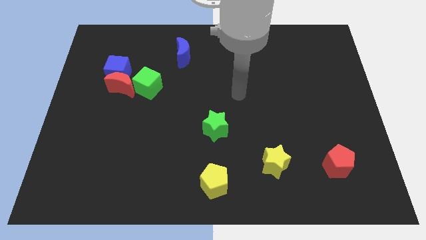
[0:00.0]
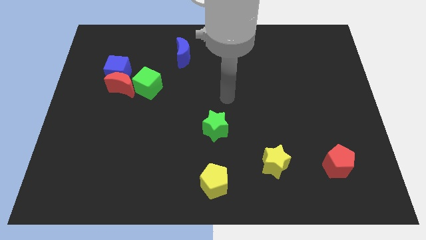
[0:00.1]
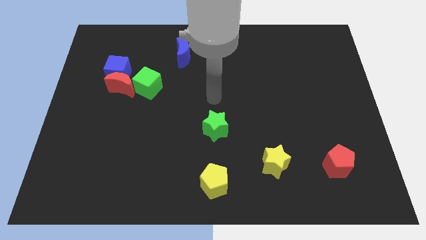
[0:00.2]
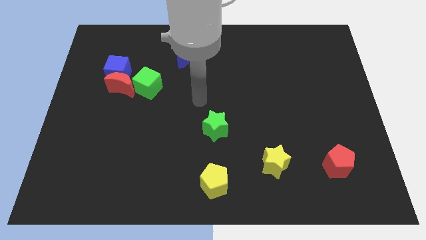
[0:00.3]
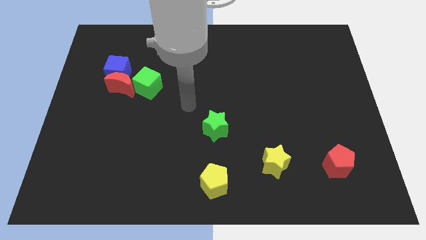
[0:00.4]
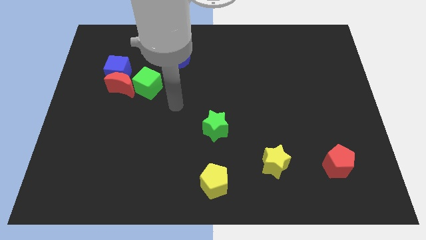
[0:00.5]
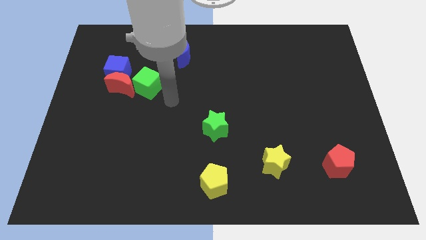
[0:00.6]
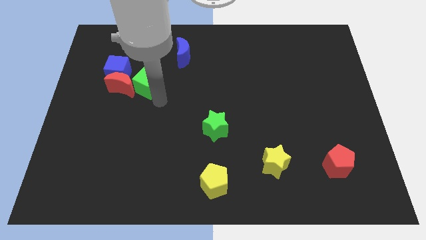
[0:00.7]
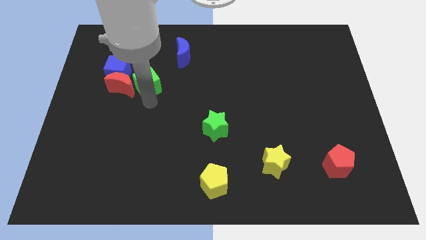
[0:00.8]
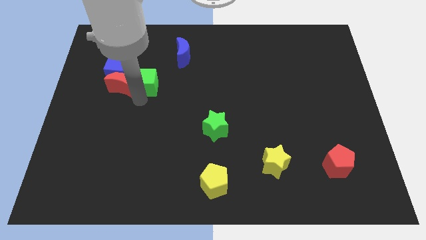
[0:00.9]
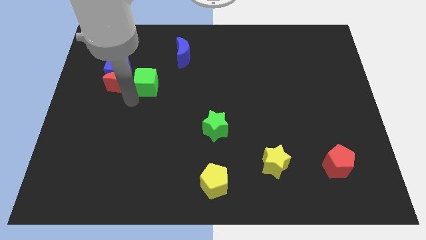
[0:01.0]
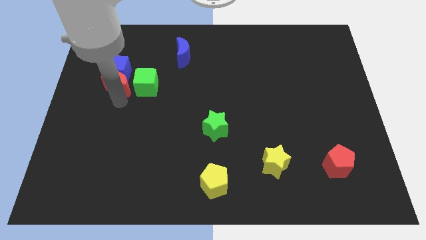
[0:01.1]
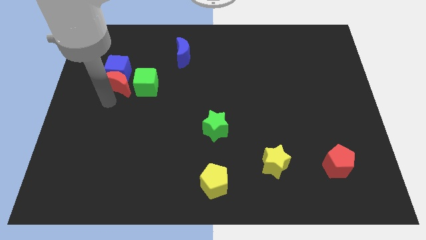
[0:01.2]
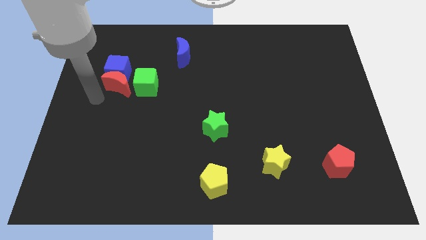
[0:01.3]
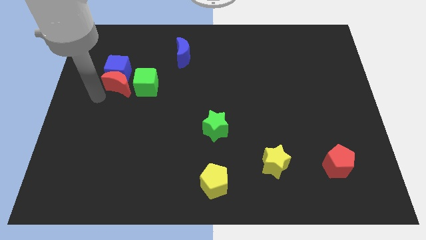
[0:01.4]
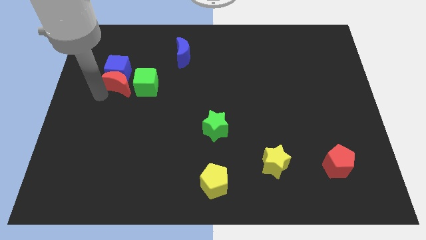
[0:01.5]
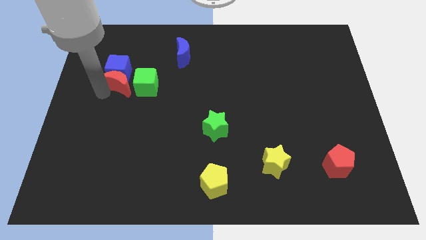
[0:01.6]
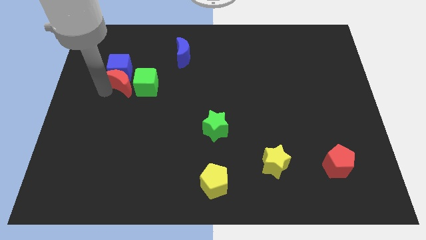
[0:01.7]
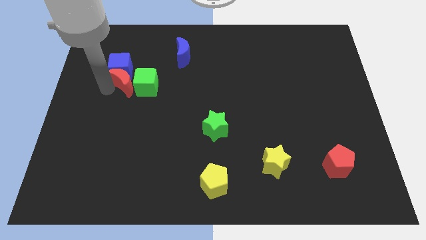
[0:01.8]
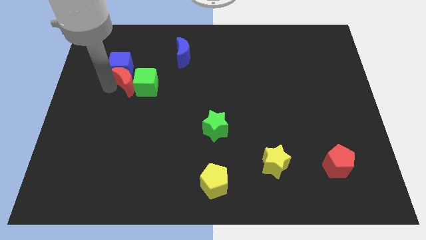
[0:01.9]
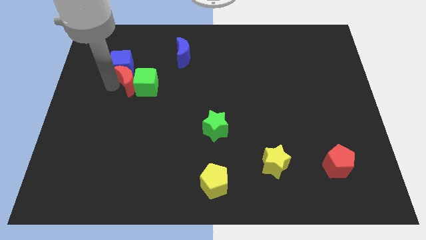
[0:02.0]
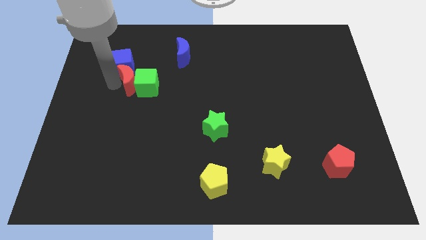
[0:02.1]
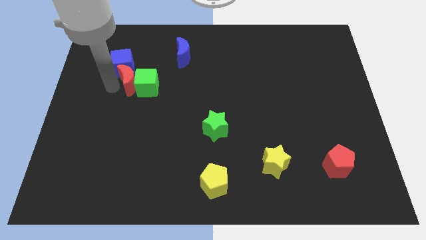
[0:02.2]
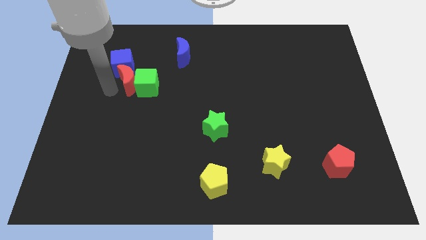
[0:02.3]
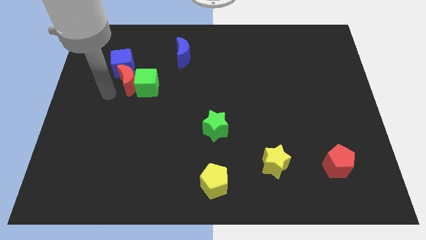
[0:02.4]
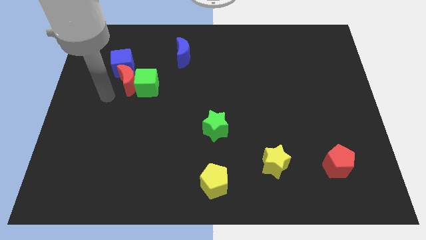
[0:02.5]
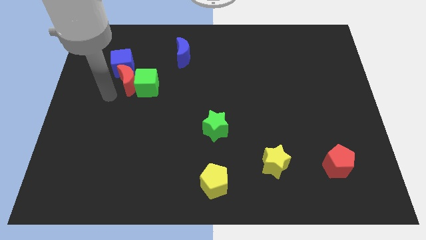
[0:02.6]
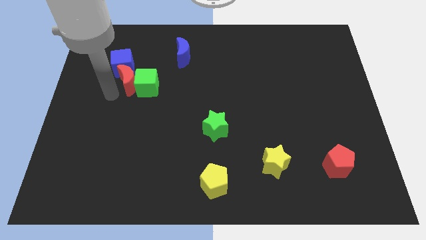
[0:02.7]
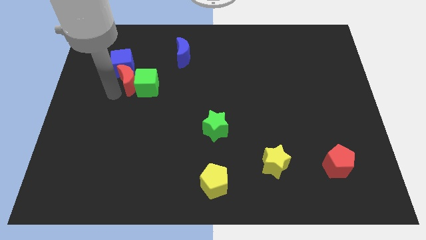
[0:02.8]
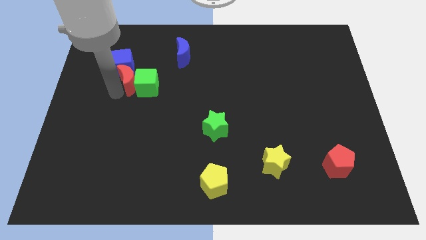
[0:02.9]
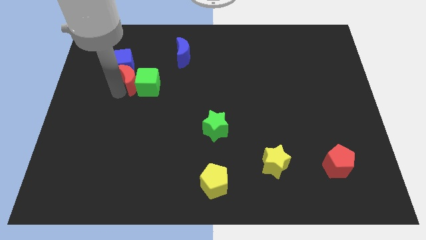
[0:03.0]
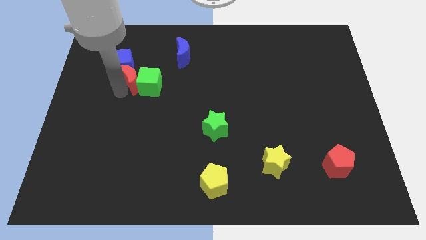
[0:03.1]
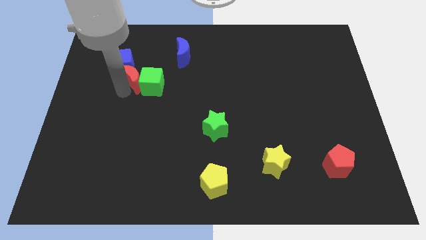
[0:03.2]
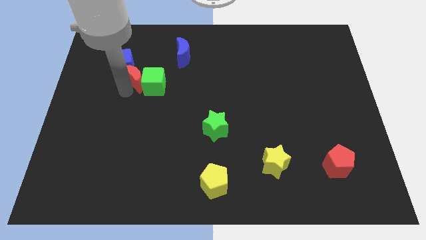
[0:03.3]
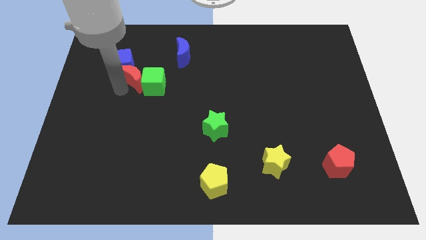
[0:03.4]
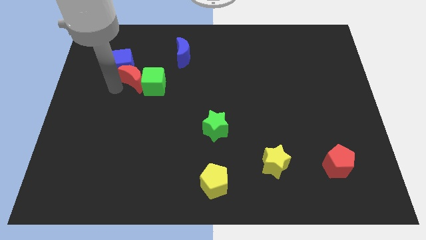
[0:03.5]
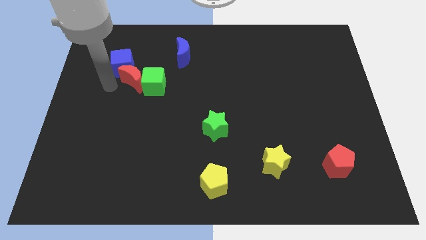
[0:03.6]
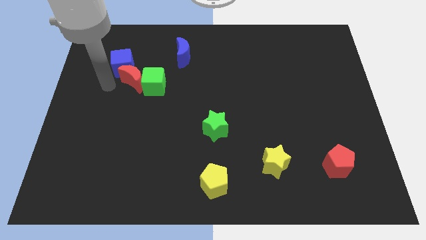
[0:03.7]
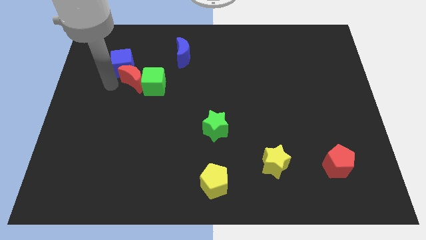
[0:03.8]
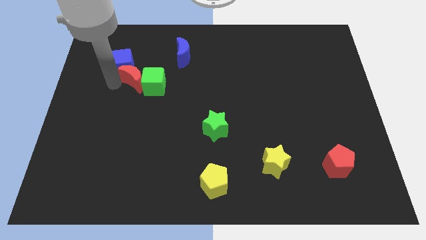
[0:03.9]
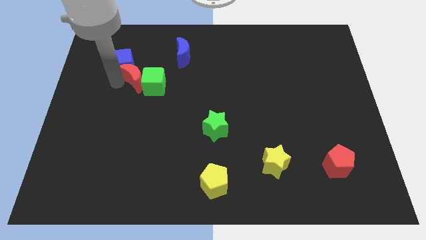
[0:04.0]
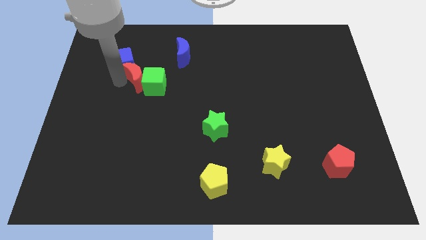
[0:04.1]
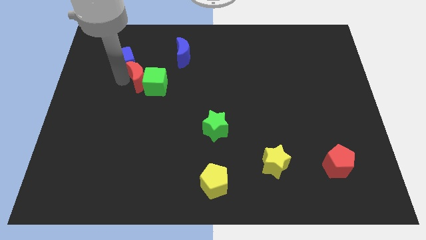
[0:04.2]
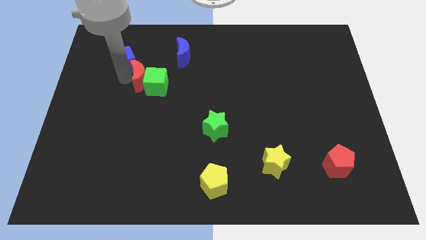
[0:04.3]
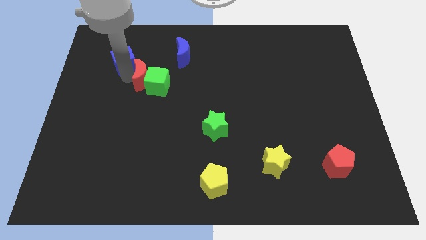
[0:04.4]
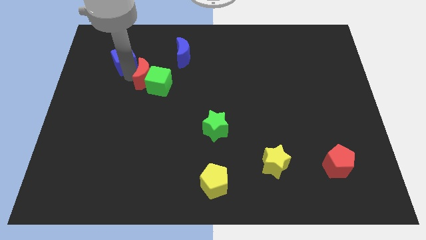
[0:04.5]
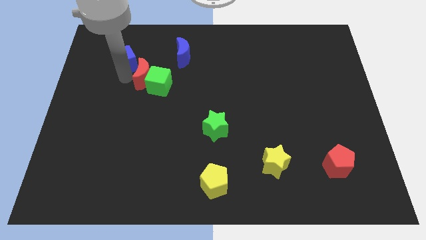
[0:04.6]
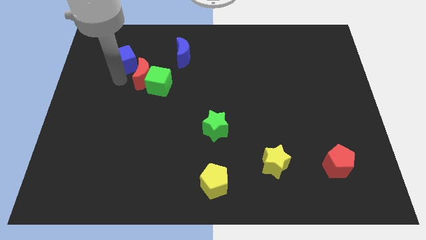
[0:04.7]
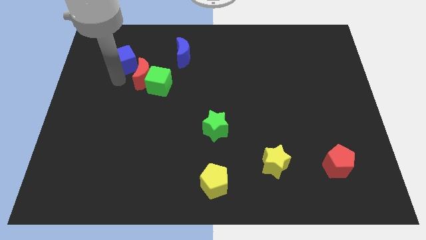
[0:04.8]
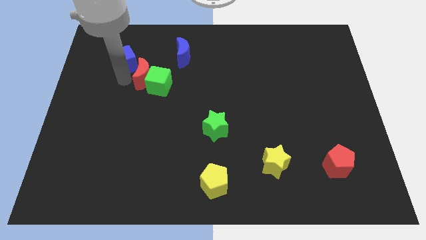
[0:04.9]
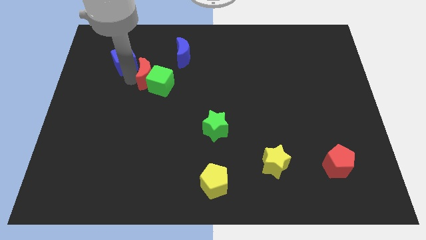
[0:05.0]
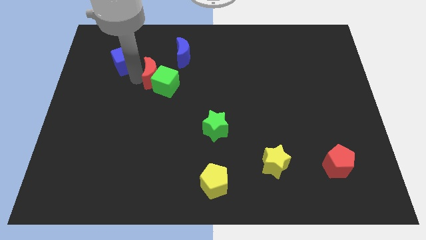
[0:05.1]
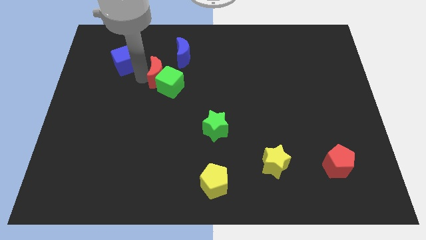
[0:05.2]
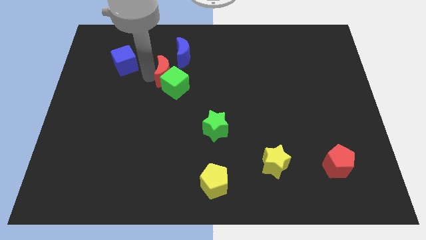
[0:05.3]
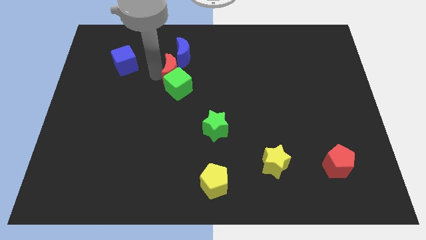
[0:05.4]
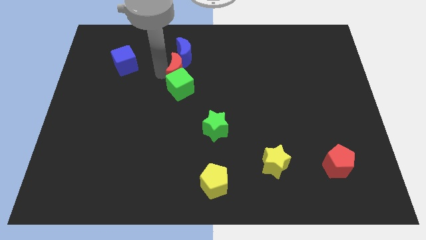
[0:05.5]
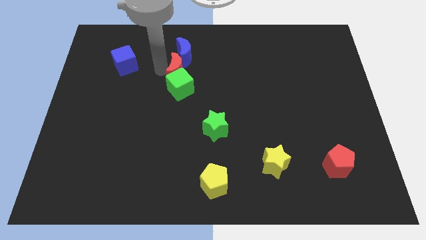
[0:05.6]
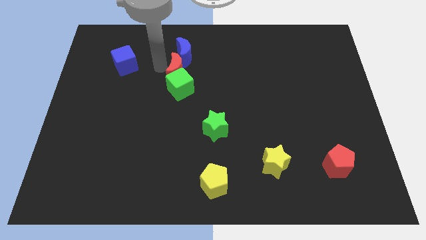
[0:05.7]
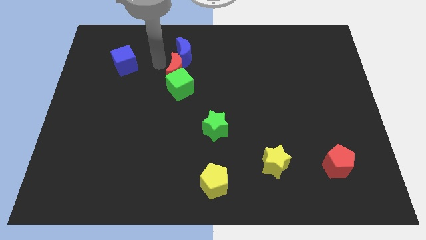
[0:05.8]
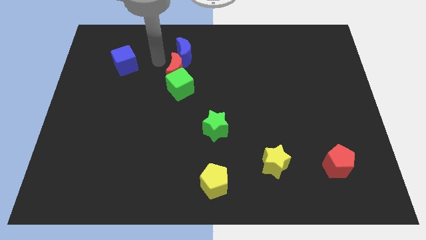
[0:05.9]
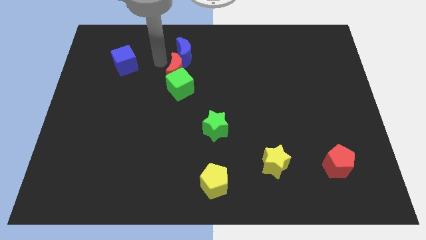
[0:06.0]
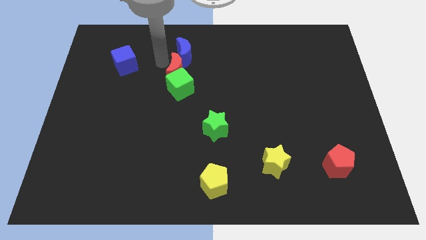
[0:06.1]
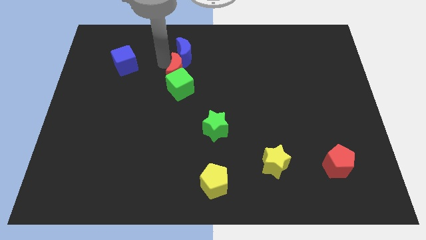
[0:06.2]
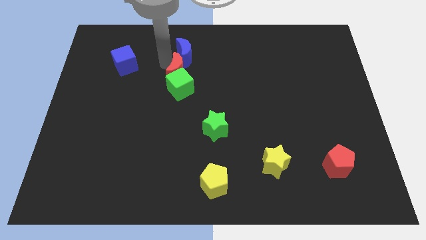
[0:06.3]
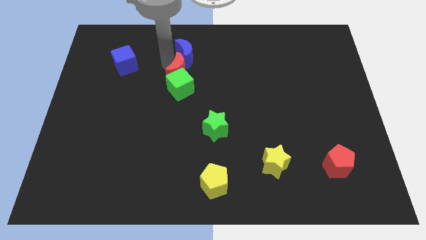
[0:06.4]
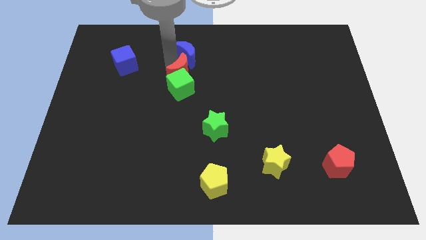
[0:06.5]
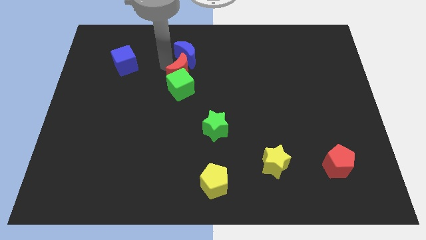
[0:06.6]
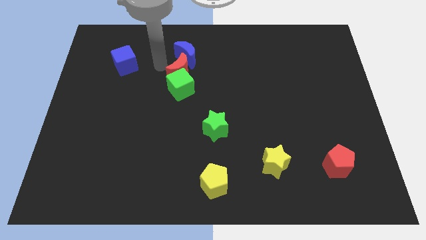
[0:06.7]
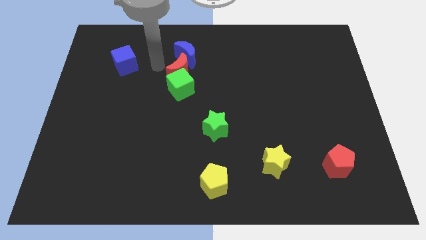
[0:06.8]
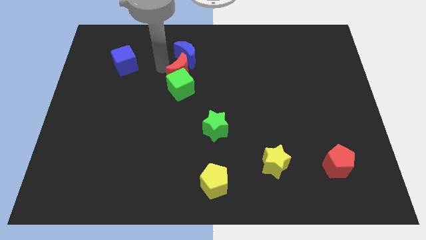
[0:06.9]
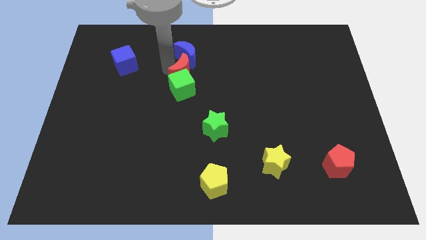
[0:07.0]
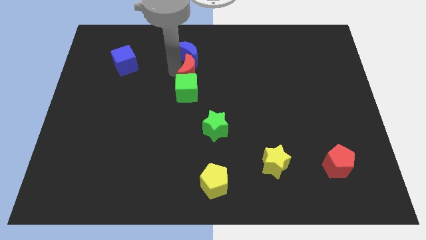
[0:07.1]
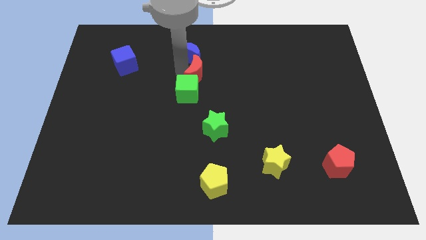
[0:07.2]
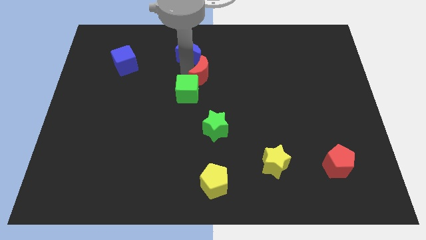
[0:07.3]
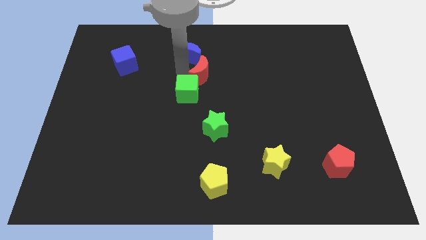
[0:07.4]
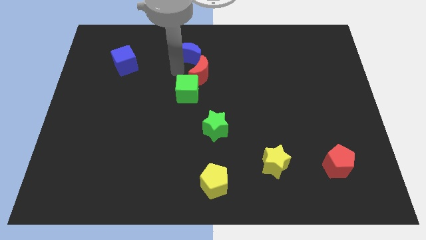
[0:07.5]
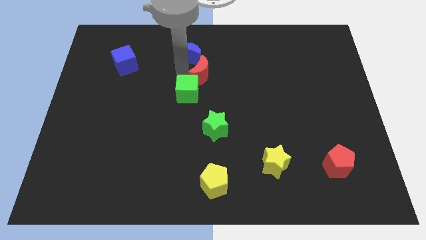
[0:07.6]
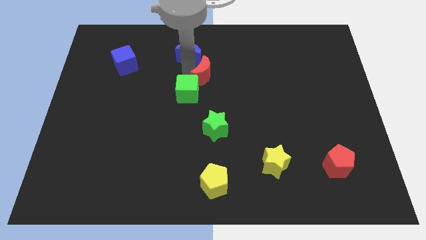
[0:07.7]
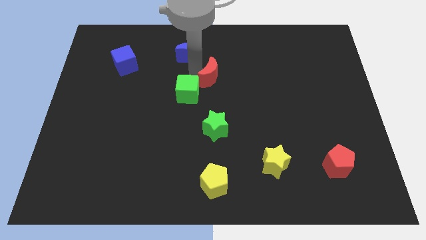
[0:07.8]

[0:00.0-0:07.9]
slide the red moon right

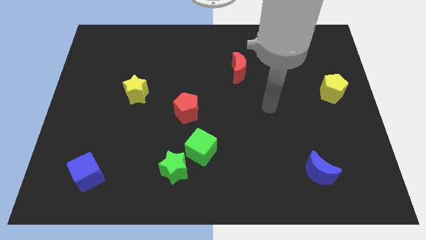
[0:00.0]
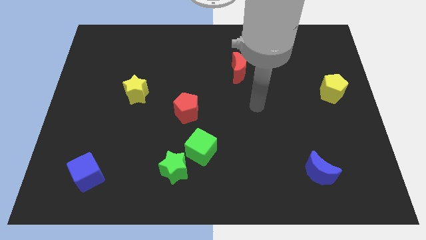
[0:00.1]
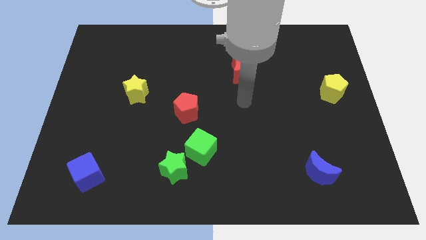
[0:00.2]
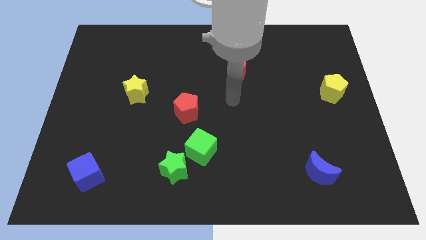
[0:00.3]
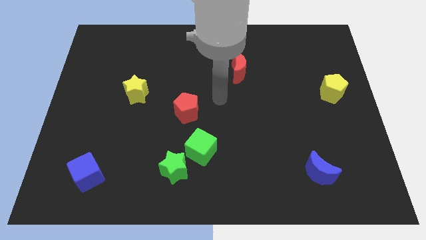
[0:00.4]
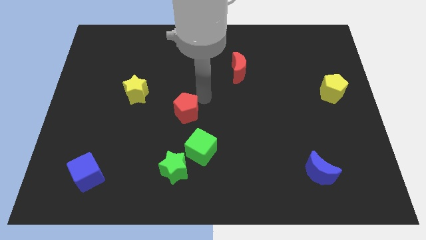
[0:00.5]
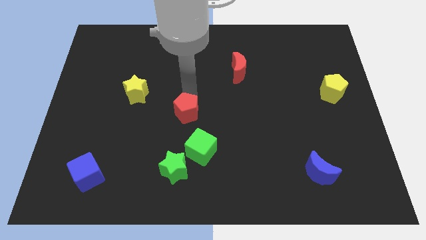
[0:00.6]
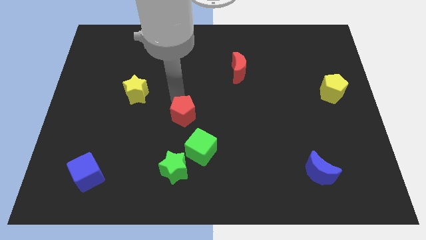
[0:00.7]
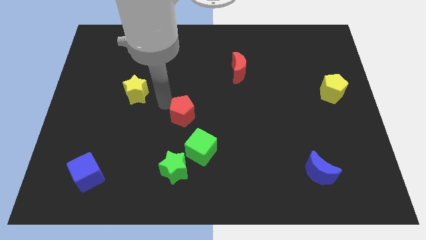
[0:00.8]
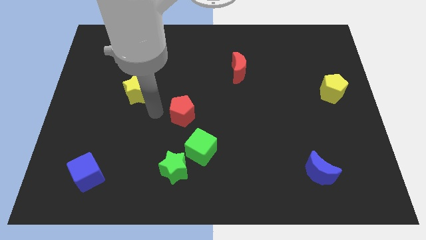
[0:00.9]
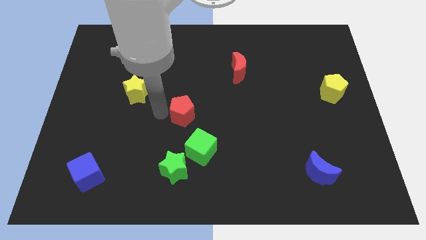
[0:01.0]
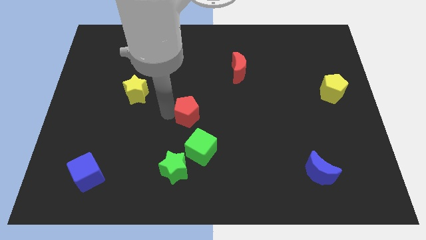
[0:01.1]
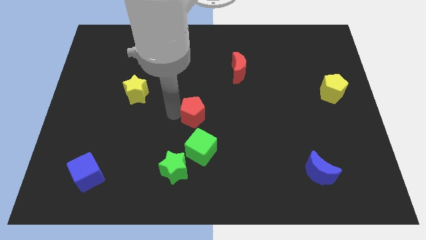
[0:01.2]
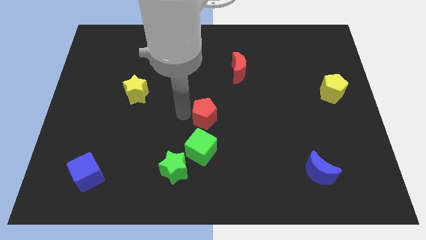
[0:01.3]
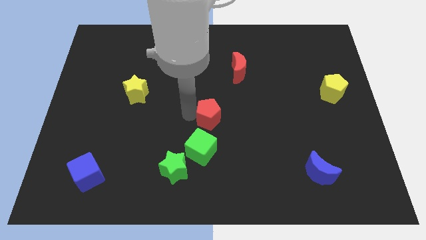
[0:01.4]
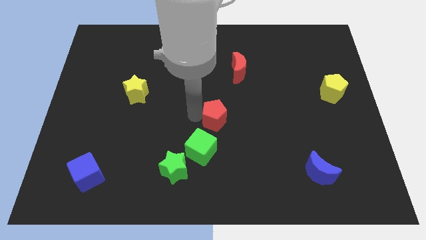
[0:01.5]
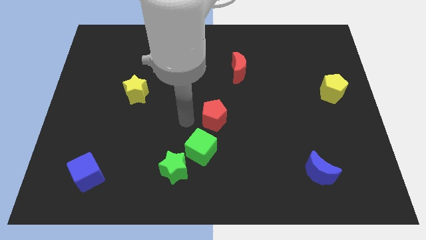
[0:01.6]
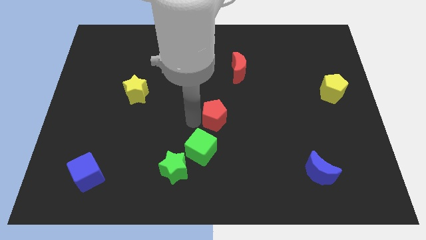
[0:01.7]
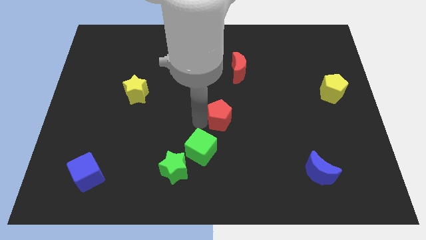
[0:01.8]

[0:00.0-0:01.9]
slightly slide the red pentagon right
